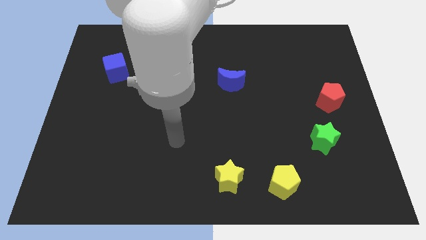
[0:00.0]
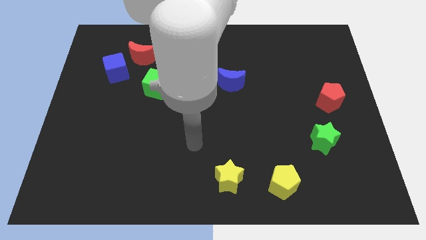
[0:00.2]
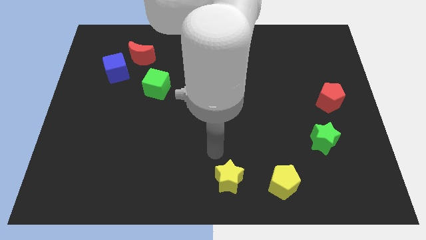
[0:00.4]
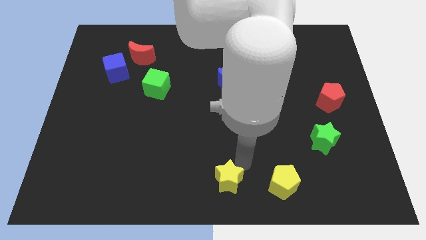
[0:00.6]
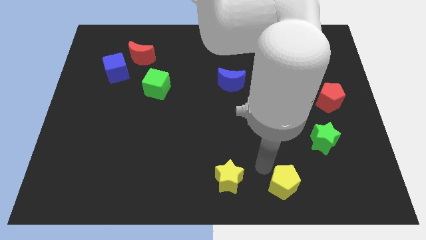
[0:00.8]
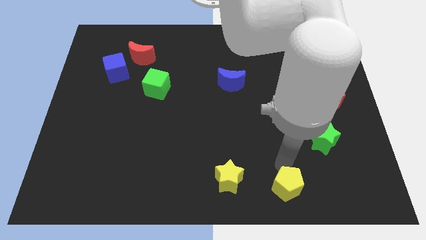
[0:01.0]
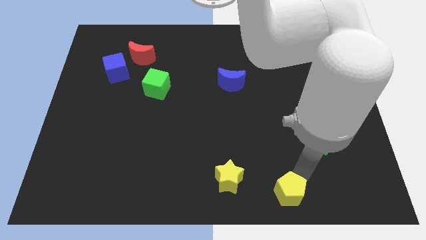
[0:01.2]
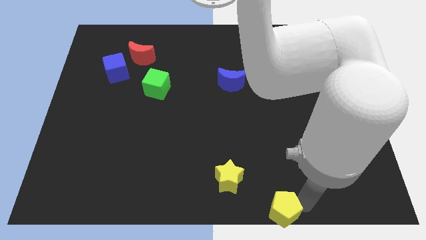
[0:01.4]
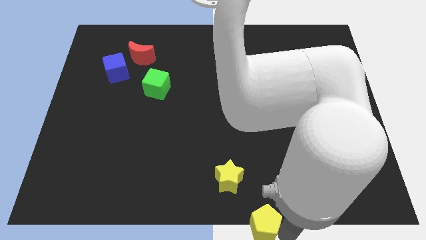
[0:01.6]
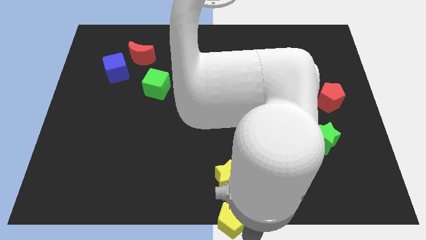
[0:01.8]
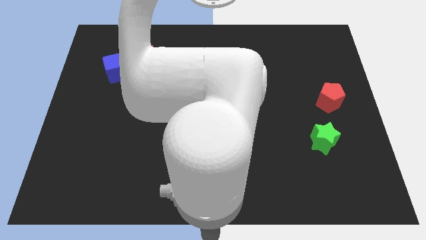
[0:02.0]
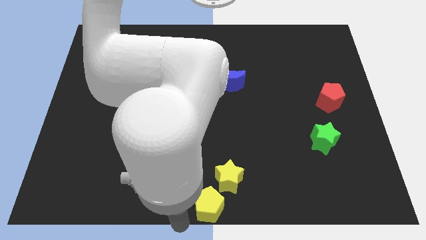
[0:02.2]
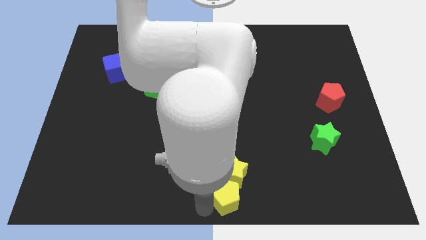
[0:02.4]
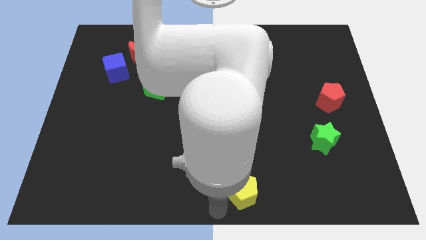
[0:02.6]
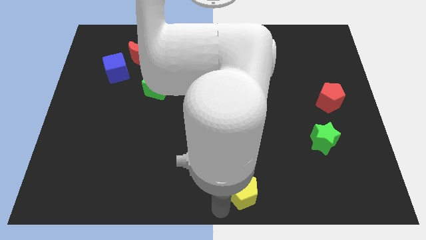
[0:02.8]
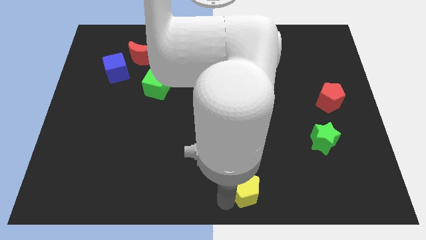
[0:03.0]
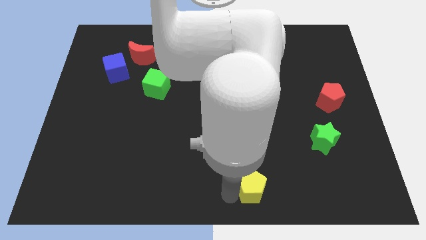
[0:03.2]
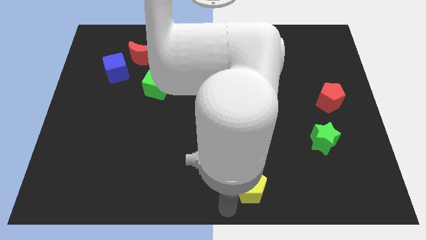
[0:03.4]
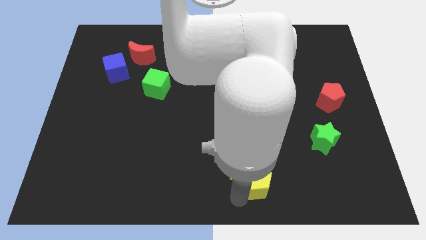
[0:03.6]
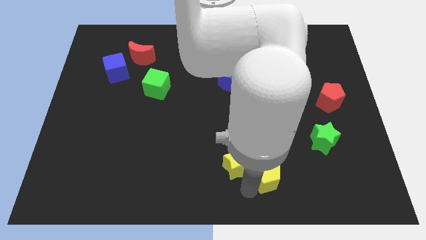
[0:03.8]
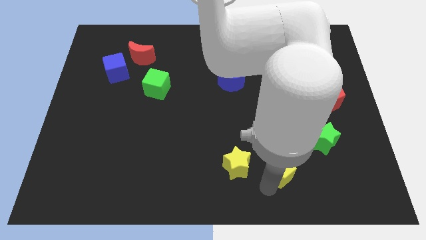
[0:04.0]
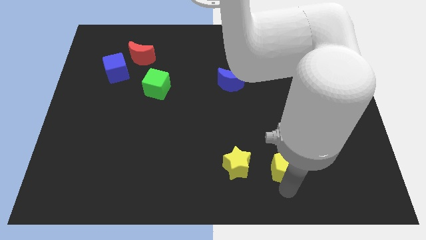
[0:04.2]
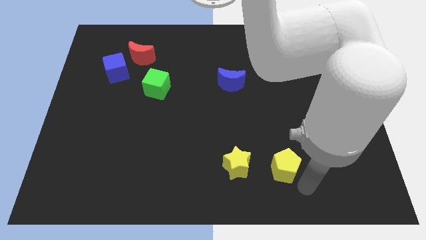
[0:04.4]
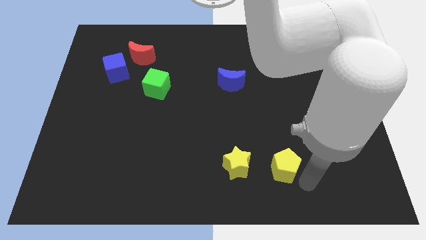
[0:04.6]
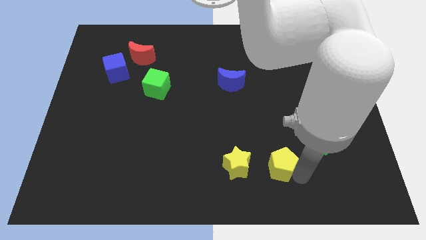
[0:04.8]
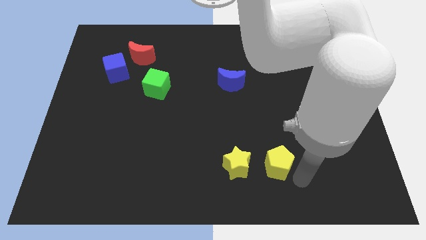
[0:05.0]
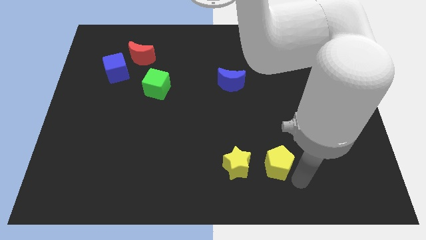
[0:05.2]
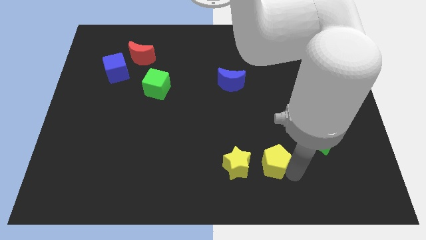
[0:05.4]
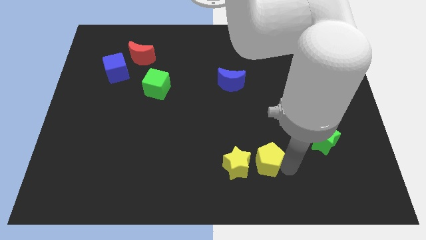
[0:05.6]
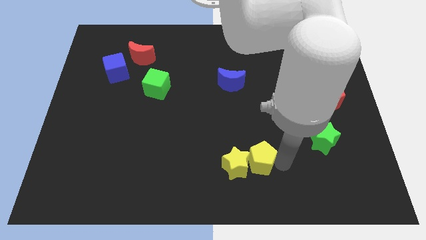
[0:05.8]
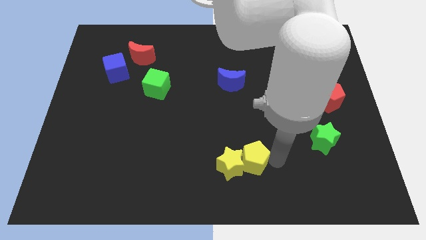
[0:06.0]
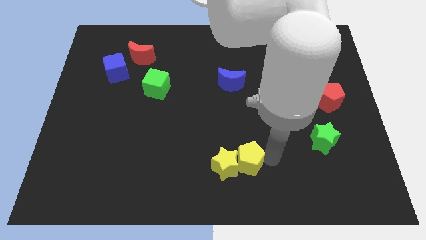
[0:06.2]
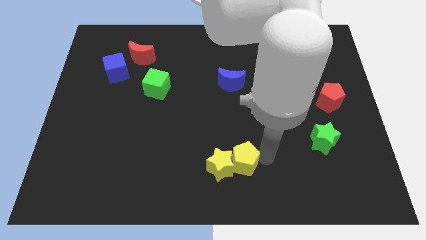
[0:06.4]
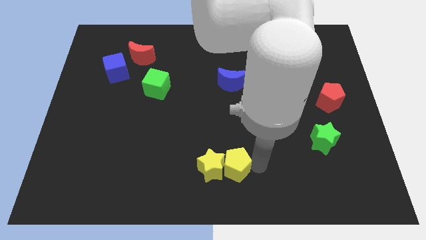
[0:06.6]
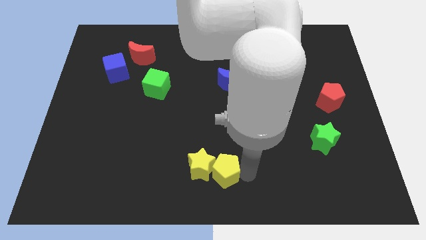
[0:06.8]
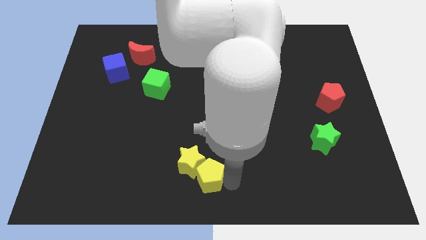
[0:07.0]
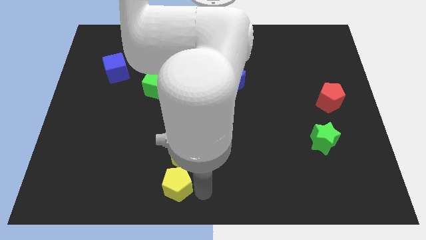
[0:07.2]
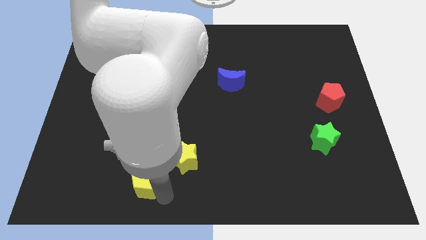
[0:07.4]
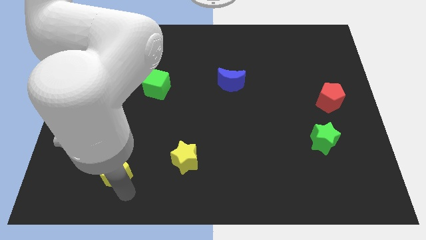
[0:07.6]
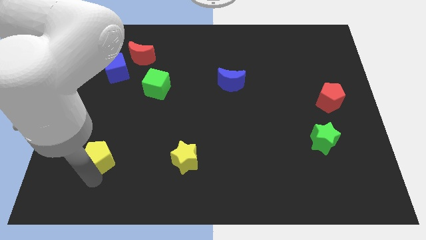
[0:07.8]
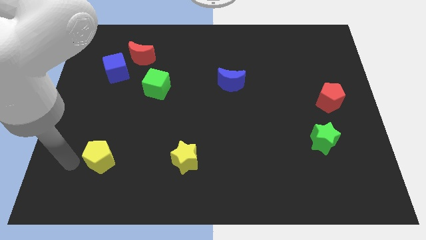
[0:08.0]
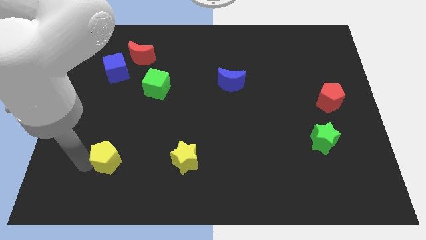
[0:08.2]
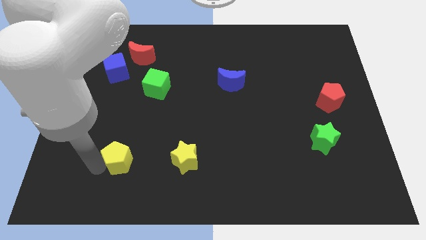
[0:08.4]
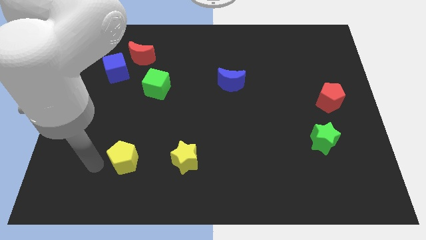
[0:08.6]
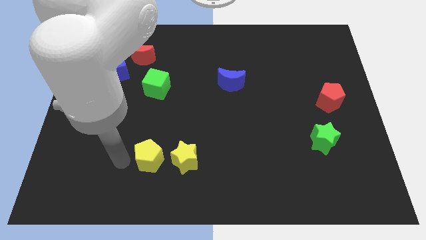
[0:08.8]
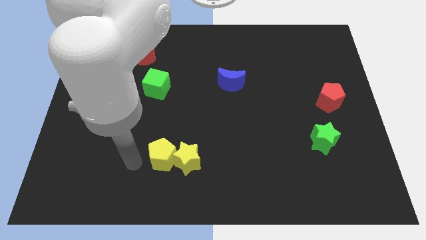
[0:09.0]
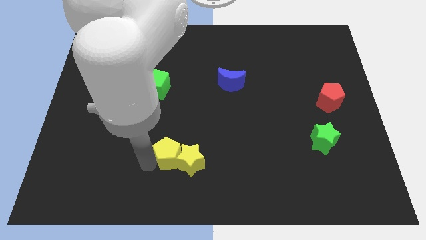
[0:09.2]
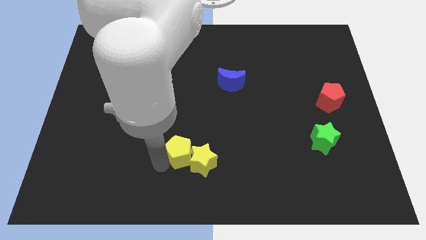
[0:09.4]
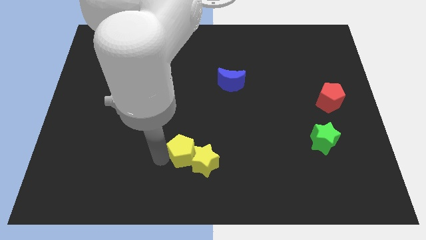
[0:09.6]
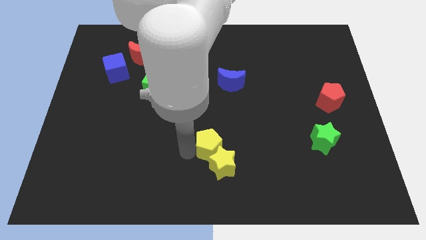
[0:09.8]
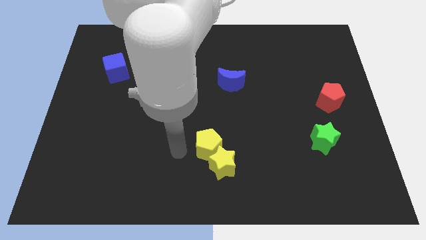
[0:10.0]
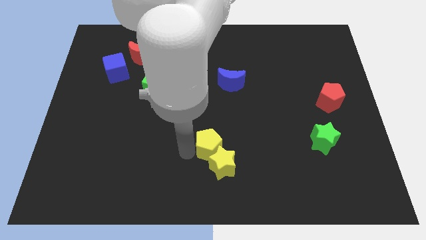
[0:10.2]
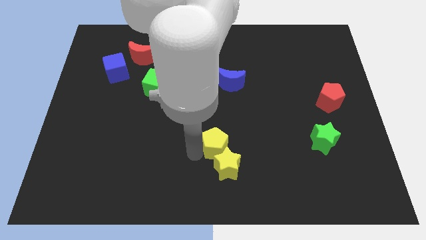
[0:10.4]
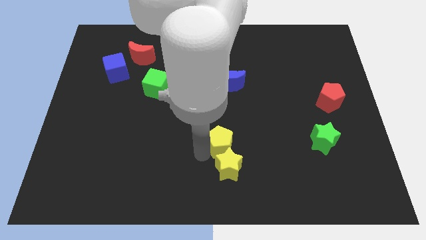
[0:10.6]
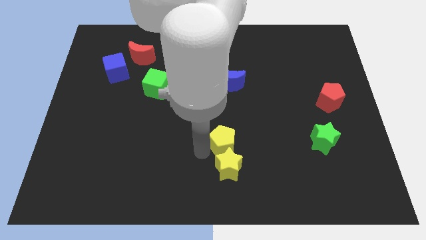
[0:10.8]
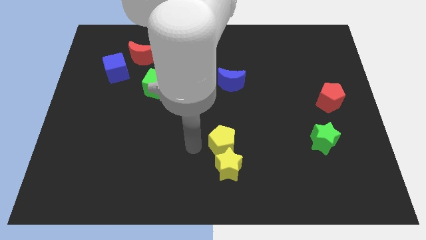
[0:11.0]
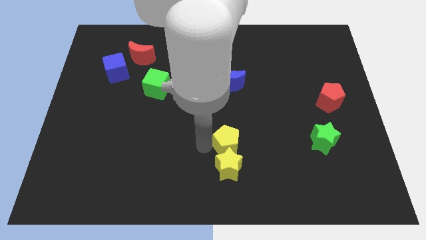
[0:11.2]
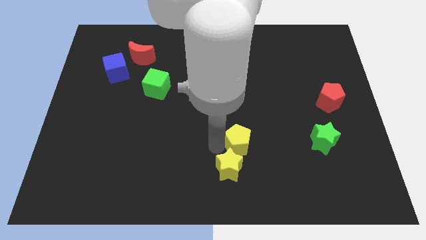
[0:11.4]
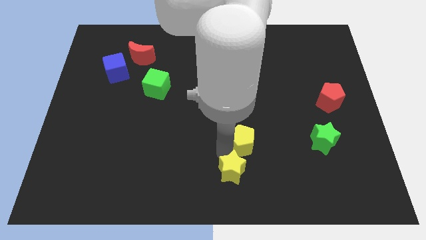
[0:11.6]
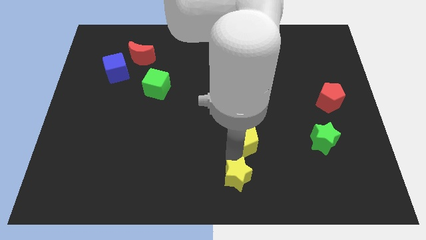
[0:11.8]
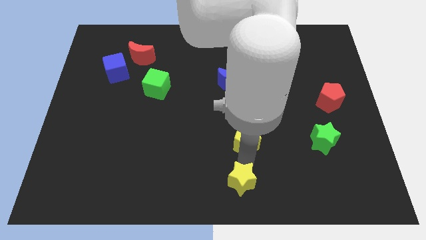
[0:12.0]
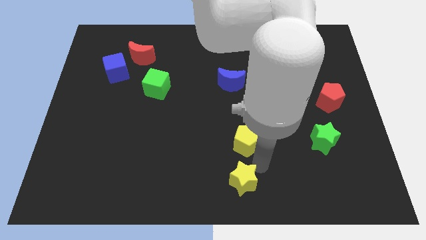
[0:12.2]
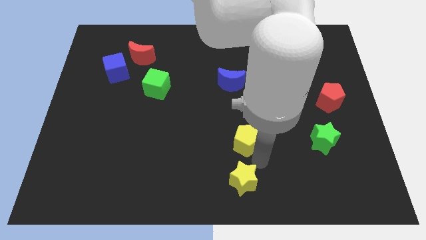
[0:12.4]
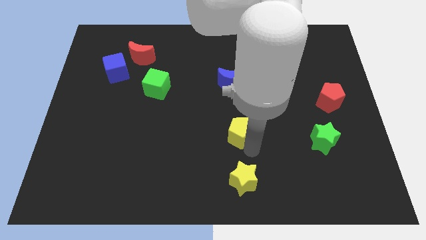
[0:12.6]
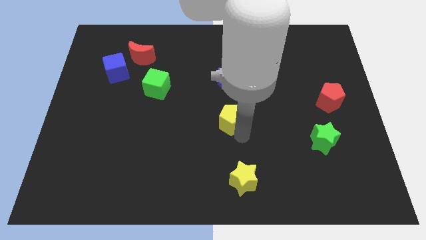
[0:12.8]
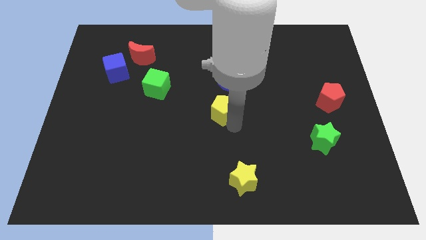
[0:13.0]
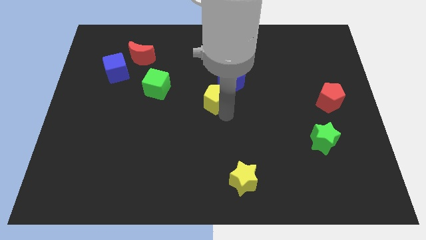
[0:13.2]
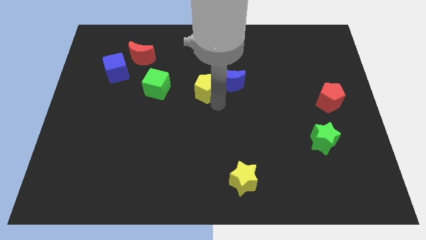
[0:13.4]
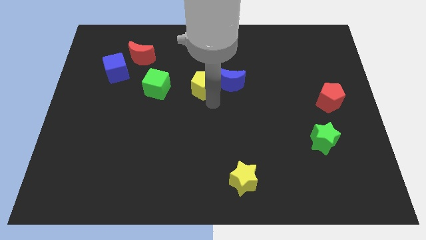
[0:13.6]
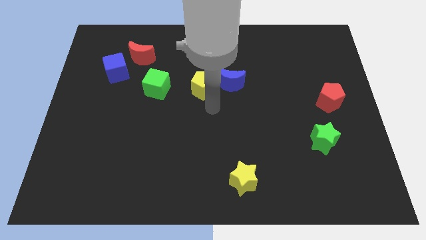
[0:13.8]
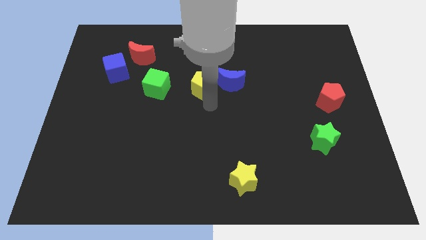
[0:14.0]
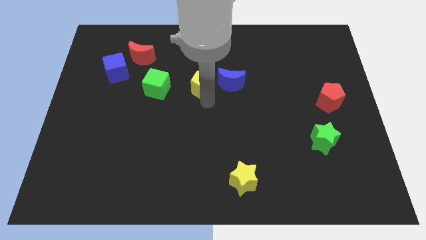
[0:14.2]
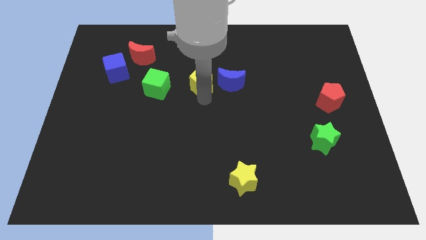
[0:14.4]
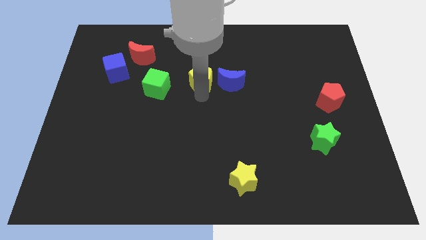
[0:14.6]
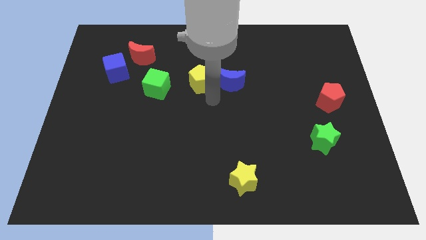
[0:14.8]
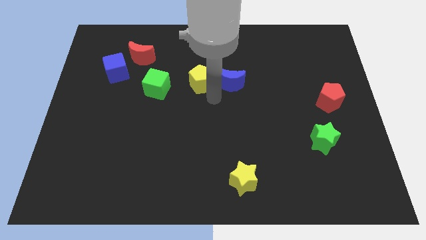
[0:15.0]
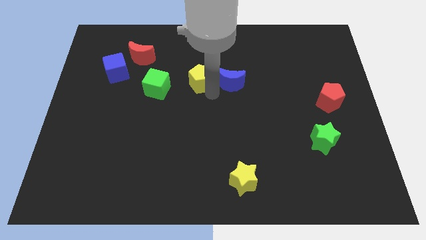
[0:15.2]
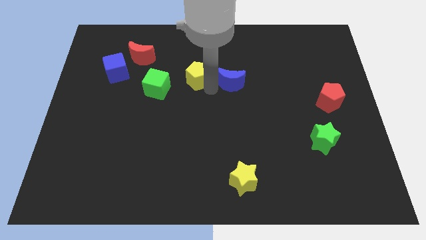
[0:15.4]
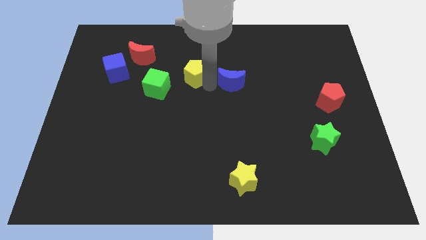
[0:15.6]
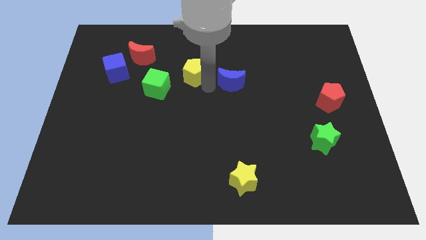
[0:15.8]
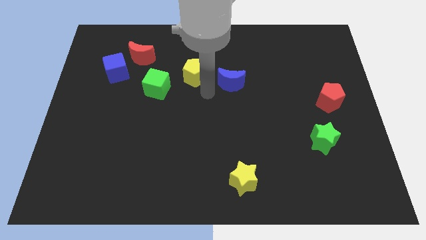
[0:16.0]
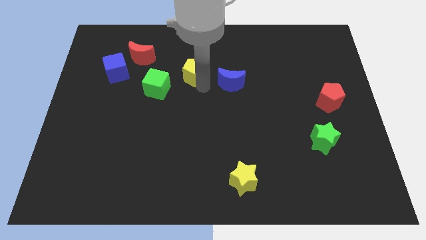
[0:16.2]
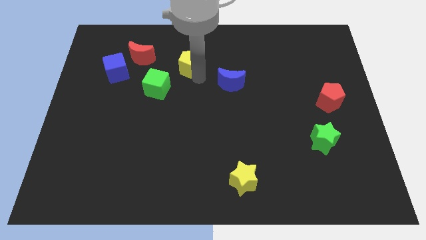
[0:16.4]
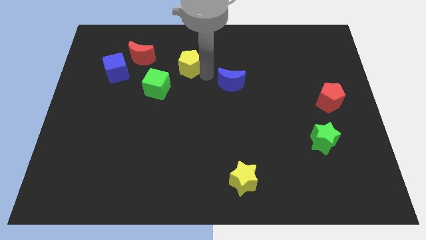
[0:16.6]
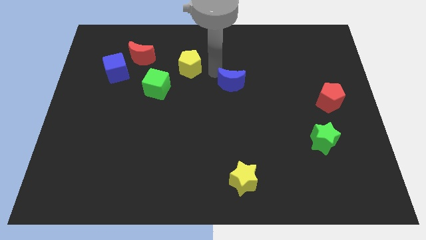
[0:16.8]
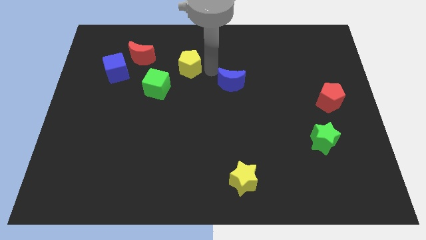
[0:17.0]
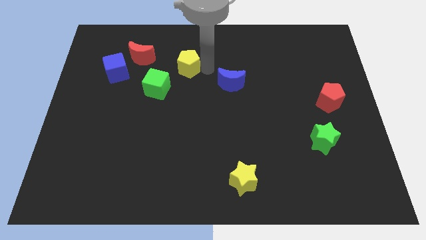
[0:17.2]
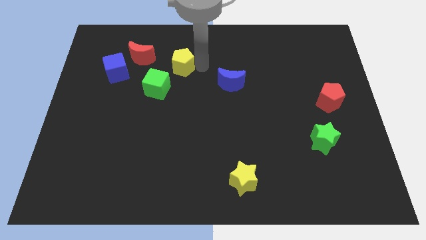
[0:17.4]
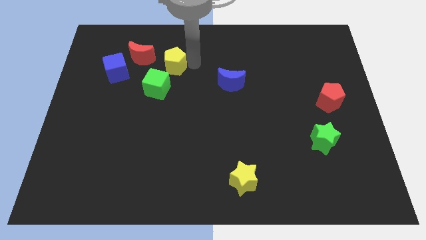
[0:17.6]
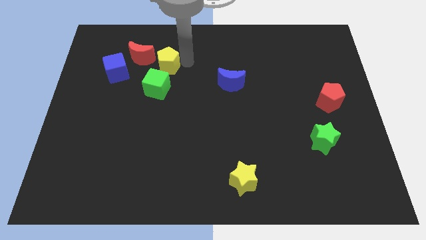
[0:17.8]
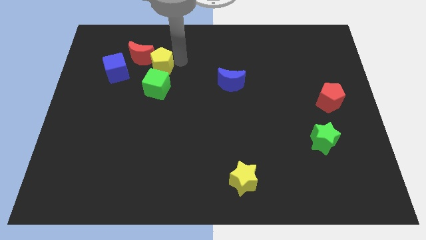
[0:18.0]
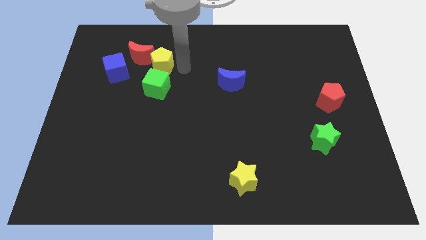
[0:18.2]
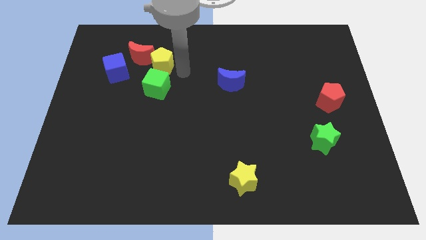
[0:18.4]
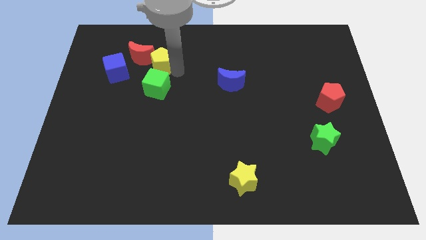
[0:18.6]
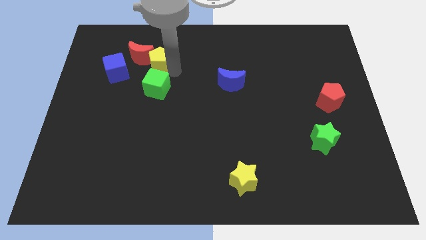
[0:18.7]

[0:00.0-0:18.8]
move the yellow pentagon to the red moon
